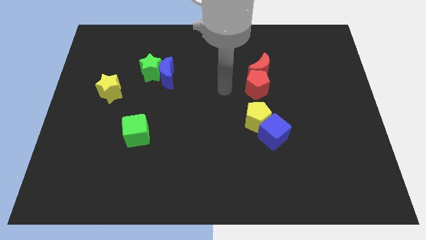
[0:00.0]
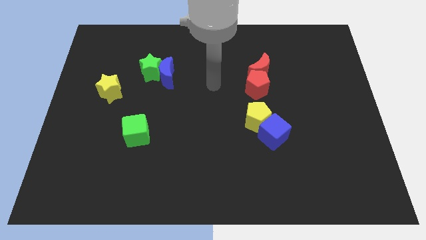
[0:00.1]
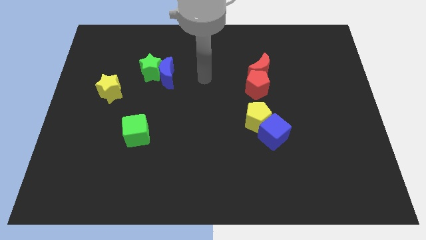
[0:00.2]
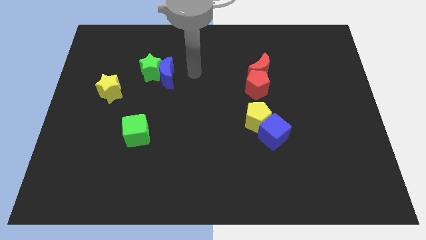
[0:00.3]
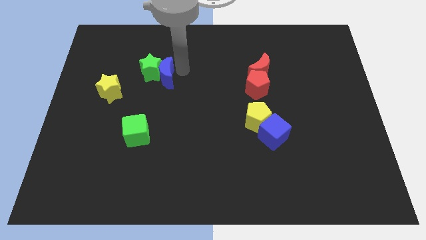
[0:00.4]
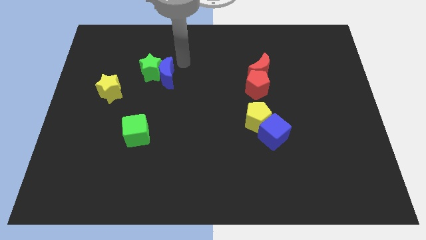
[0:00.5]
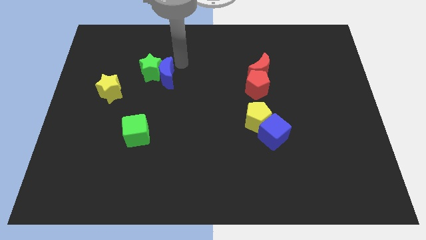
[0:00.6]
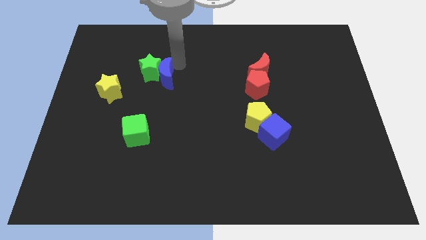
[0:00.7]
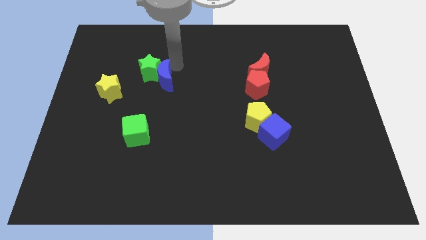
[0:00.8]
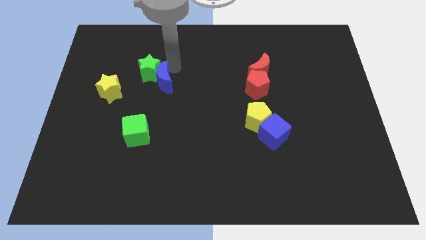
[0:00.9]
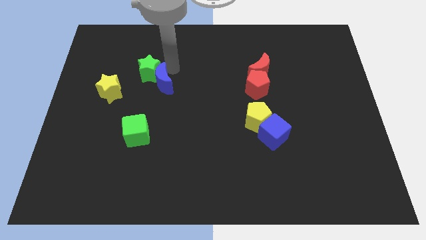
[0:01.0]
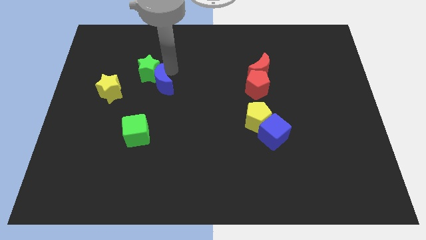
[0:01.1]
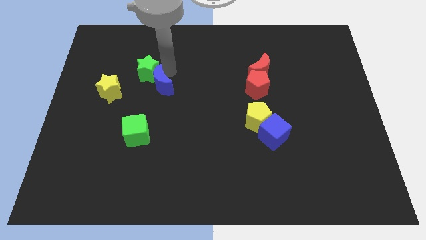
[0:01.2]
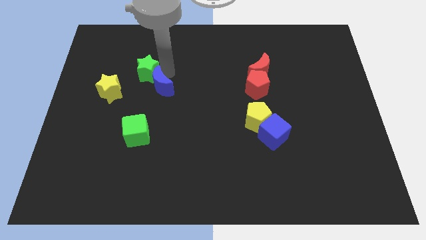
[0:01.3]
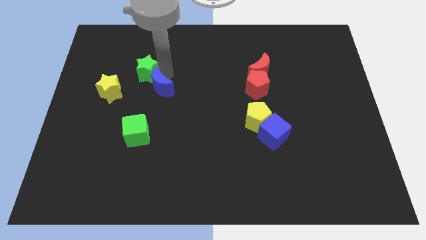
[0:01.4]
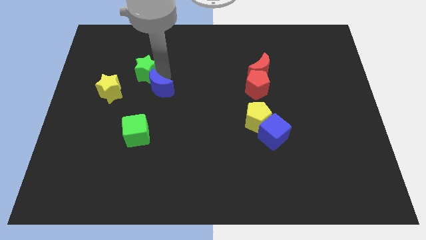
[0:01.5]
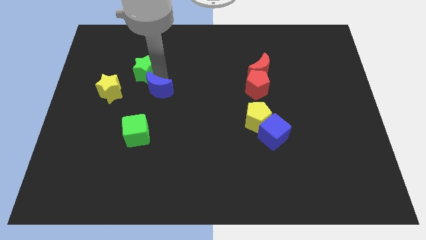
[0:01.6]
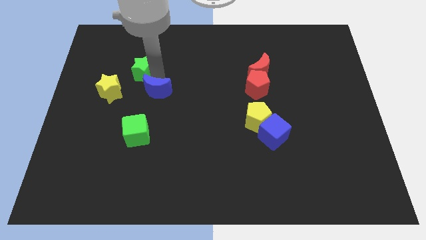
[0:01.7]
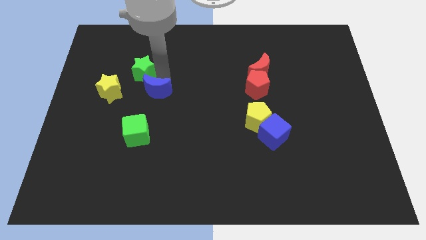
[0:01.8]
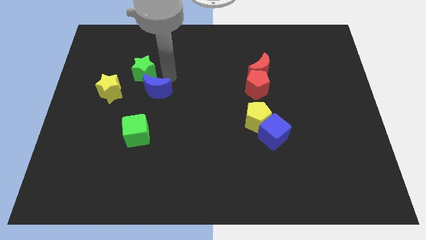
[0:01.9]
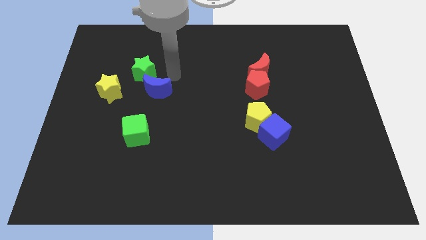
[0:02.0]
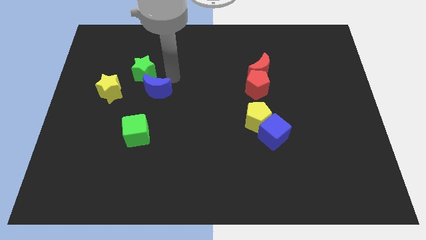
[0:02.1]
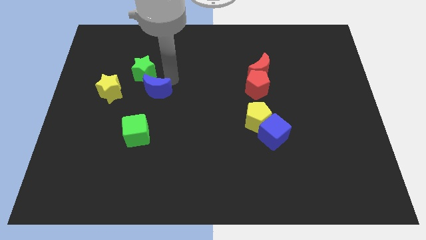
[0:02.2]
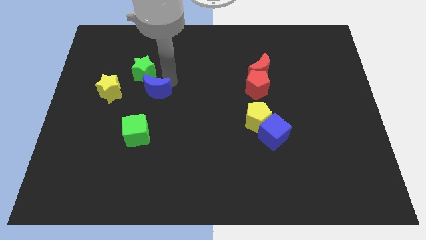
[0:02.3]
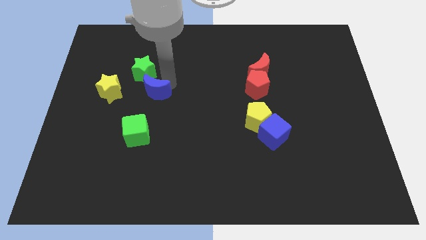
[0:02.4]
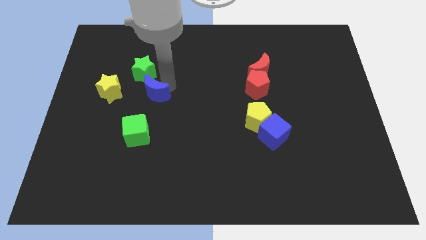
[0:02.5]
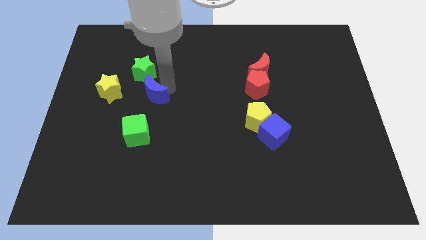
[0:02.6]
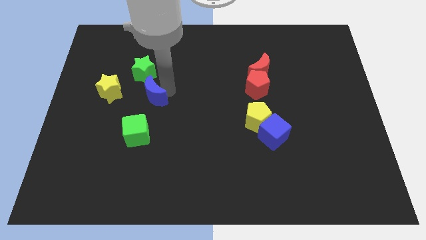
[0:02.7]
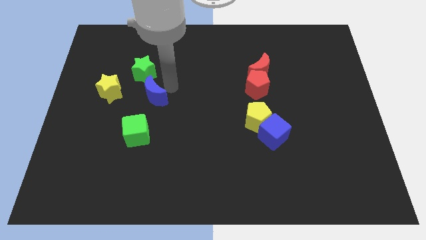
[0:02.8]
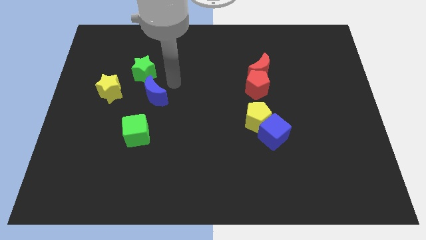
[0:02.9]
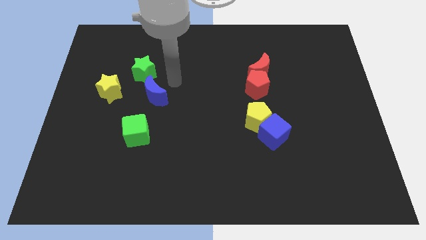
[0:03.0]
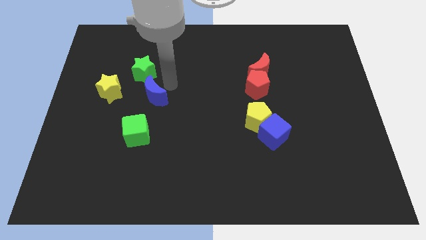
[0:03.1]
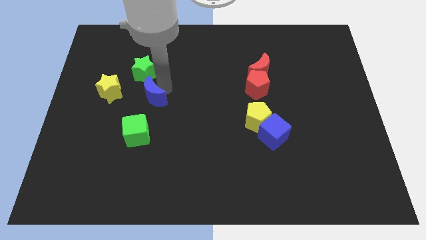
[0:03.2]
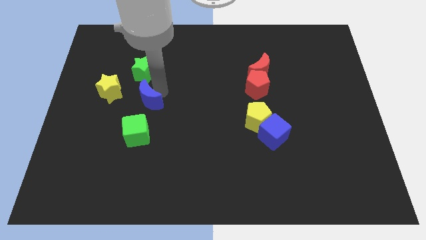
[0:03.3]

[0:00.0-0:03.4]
slide the blue moon down and to the left diagonally slightly

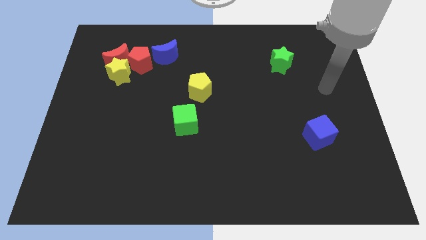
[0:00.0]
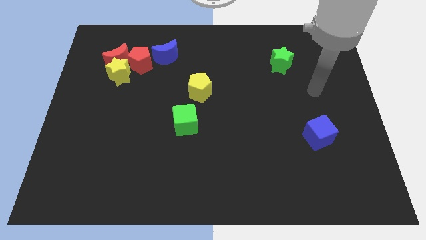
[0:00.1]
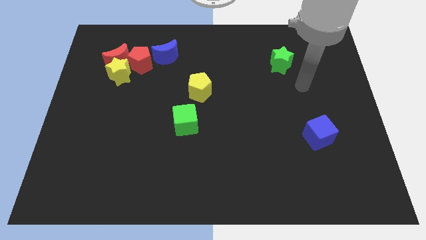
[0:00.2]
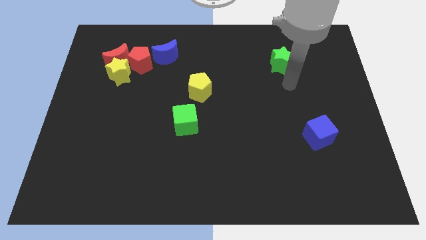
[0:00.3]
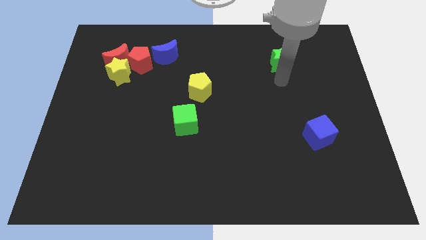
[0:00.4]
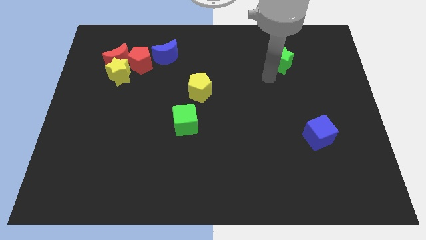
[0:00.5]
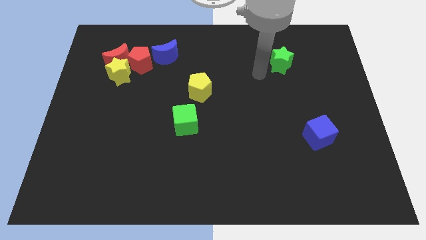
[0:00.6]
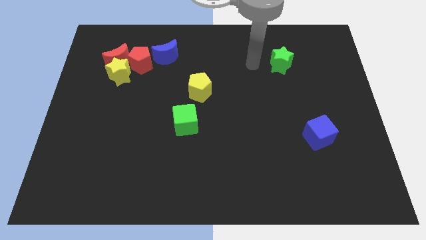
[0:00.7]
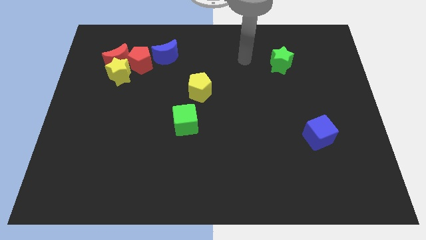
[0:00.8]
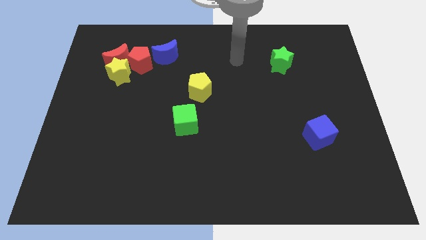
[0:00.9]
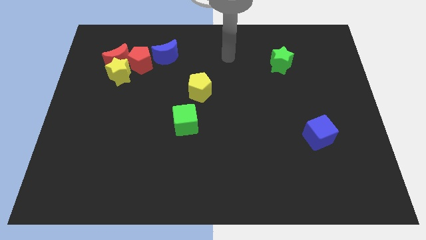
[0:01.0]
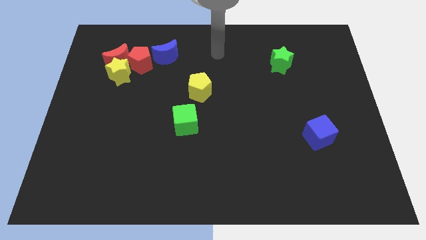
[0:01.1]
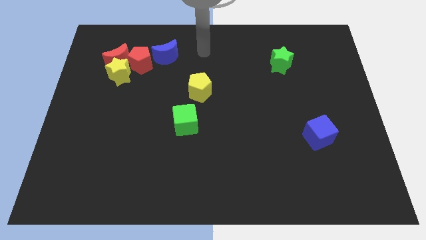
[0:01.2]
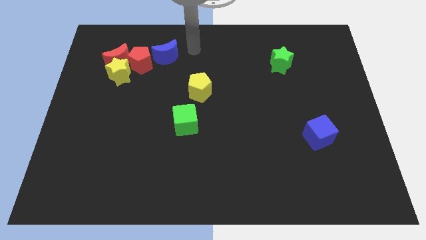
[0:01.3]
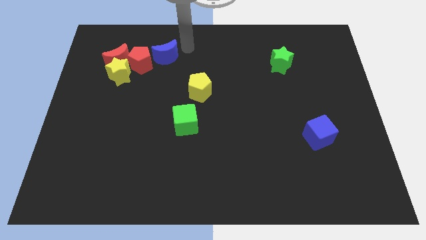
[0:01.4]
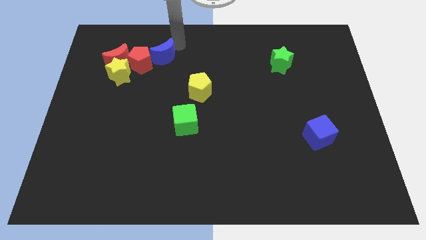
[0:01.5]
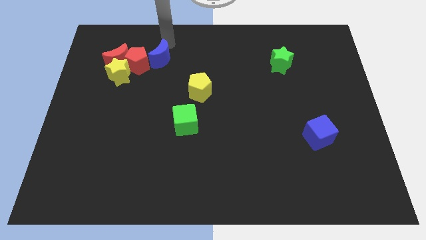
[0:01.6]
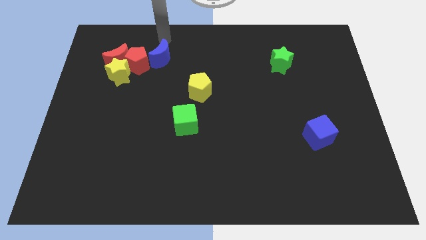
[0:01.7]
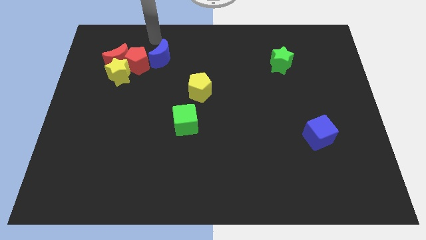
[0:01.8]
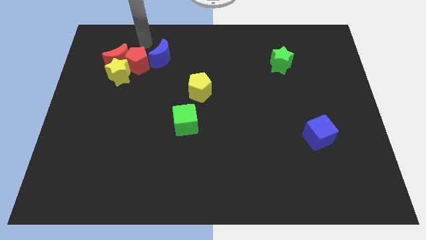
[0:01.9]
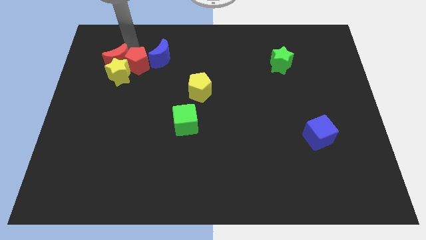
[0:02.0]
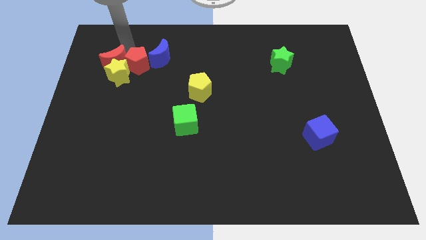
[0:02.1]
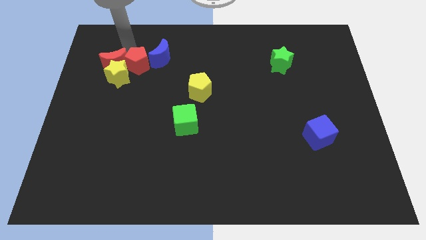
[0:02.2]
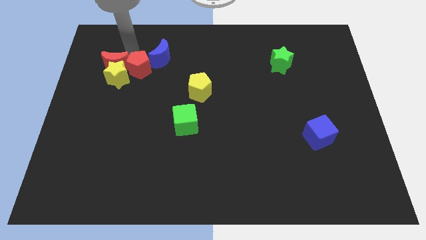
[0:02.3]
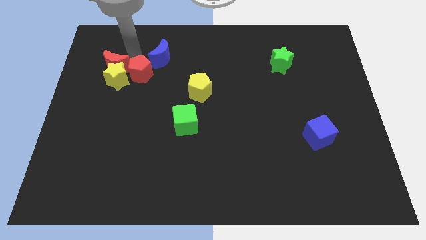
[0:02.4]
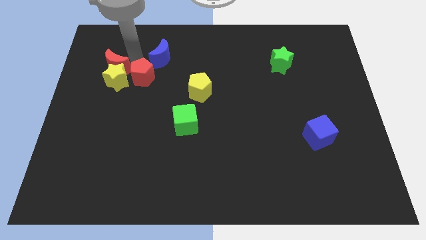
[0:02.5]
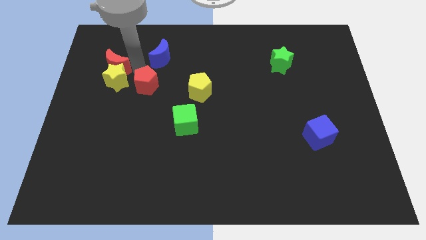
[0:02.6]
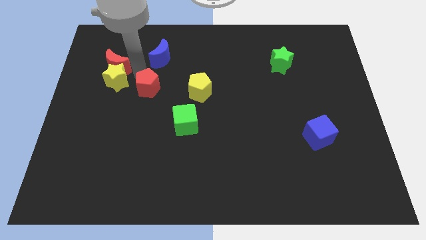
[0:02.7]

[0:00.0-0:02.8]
move the red pentagon a bit diagonally down and right

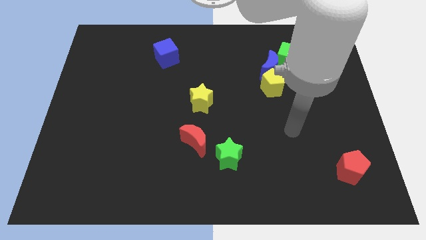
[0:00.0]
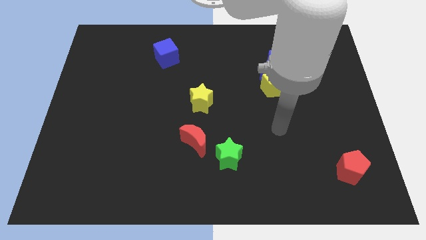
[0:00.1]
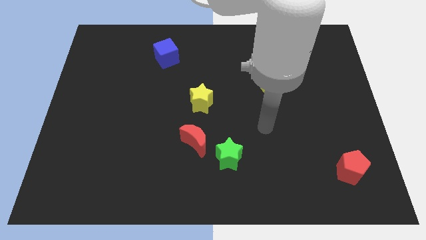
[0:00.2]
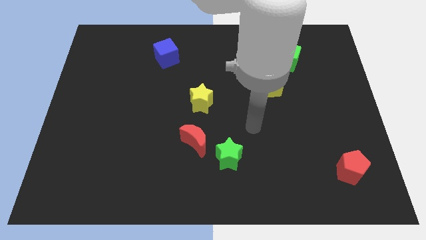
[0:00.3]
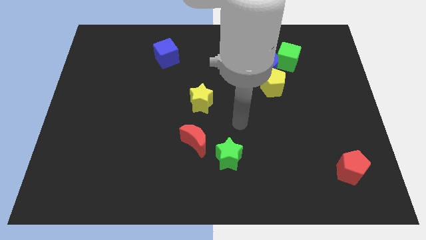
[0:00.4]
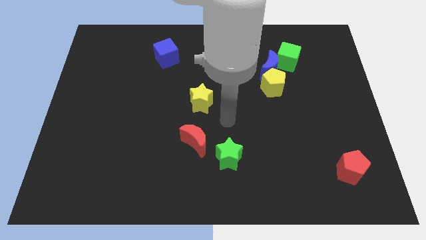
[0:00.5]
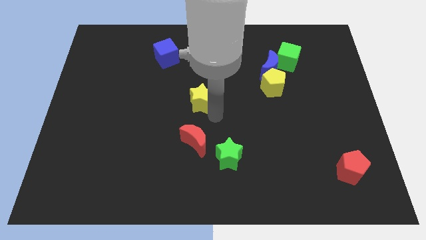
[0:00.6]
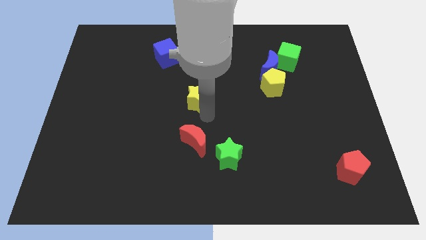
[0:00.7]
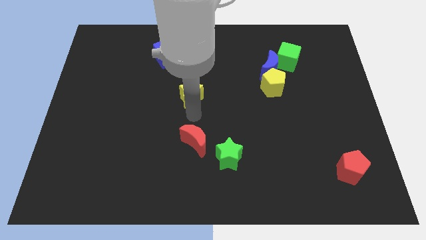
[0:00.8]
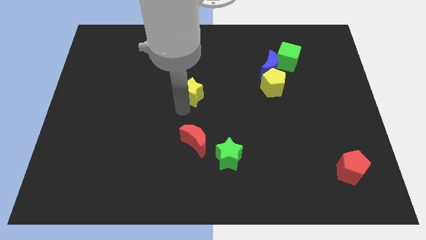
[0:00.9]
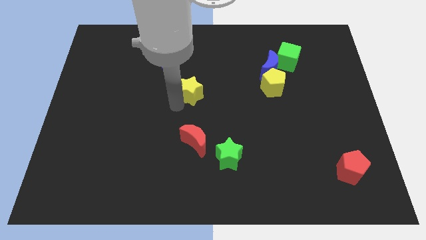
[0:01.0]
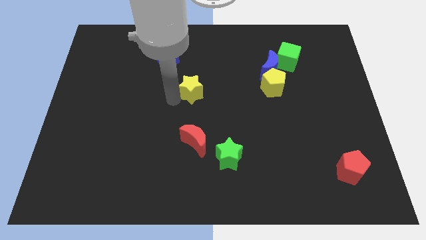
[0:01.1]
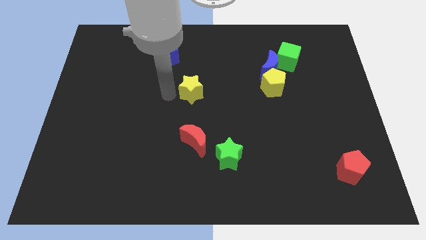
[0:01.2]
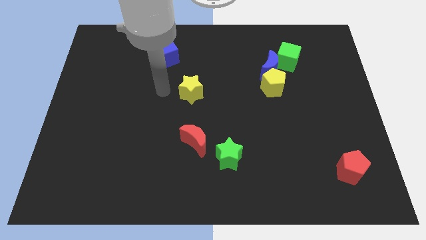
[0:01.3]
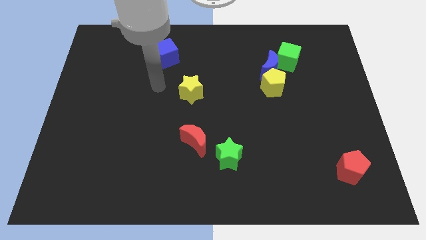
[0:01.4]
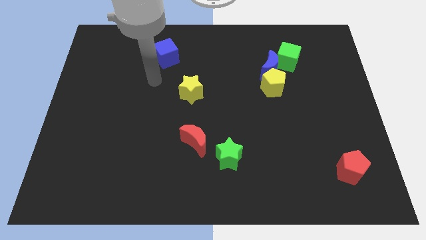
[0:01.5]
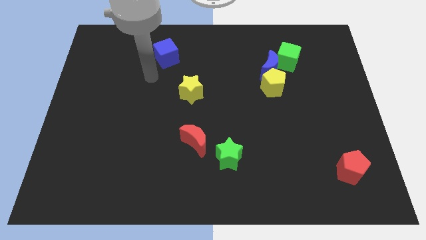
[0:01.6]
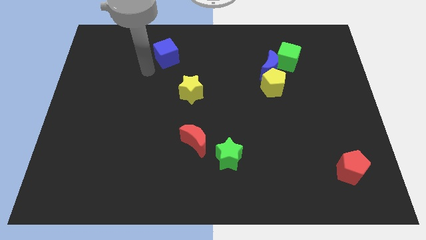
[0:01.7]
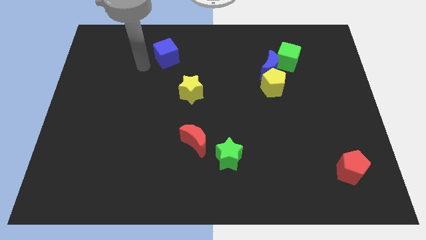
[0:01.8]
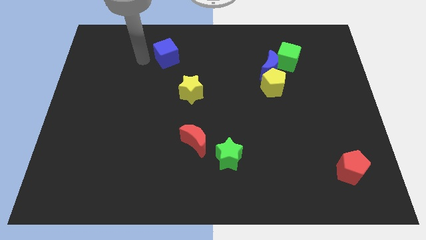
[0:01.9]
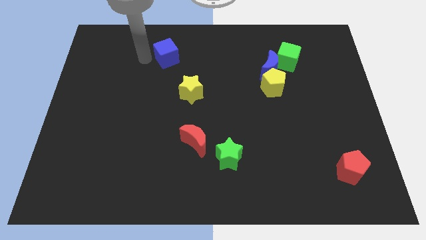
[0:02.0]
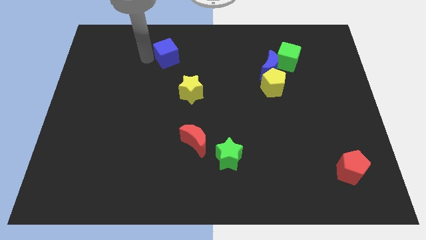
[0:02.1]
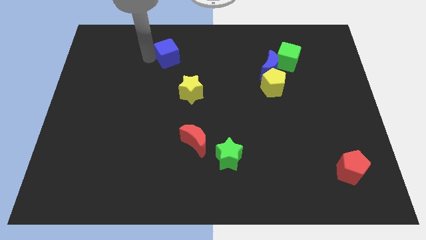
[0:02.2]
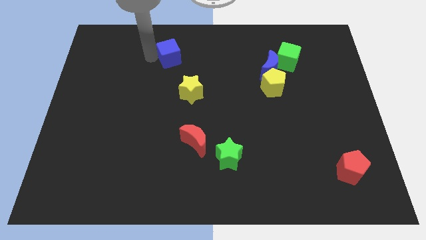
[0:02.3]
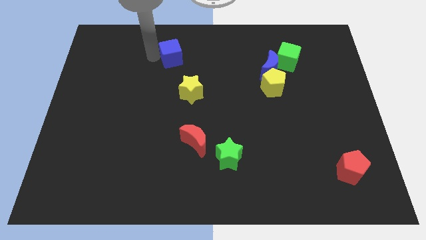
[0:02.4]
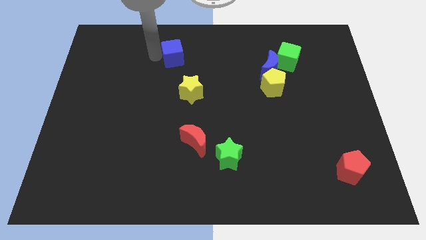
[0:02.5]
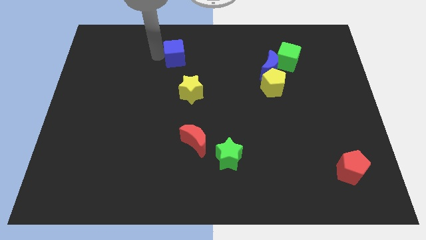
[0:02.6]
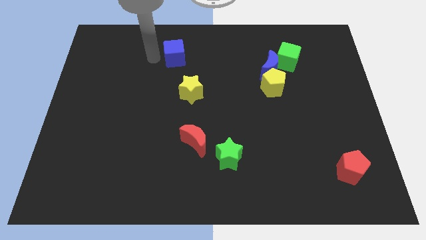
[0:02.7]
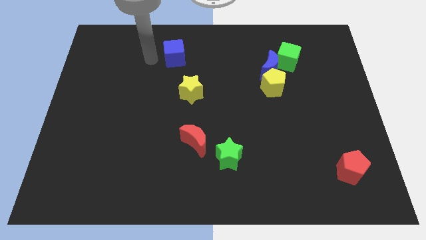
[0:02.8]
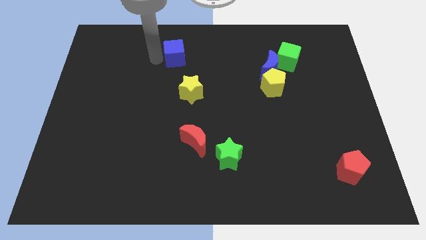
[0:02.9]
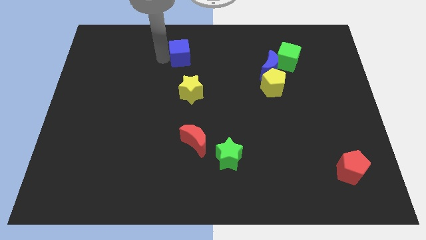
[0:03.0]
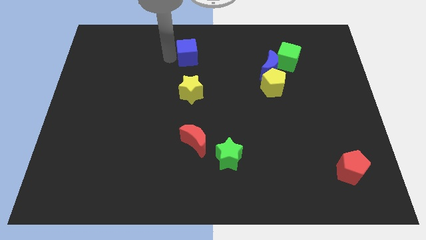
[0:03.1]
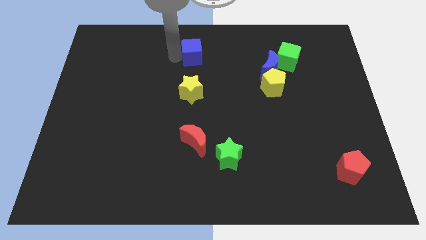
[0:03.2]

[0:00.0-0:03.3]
push the blue cube to the right somewhat
